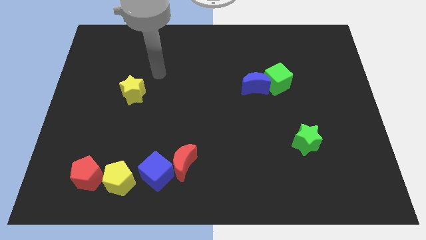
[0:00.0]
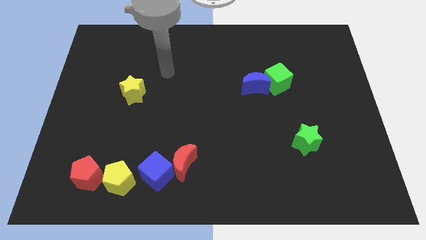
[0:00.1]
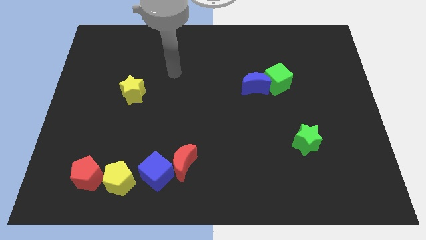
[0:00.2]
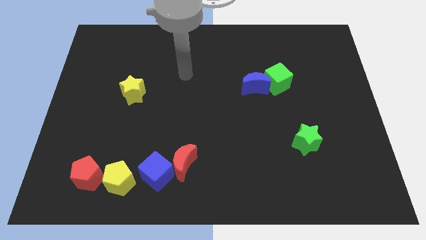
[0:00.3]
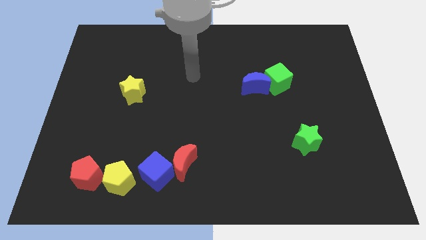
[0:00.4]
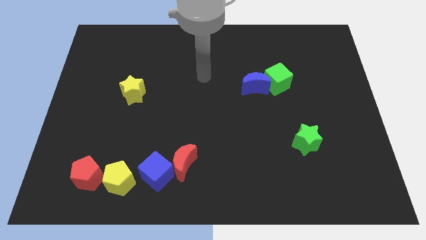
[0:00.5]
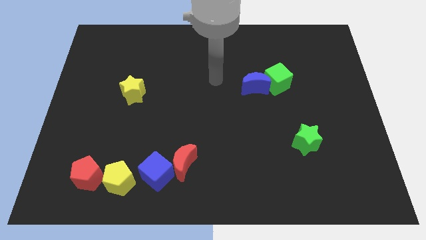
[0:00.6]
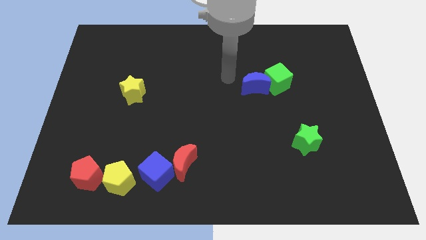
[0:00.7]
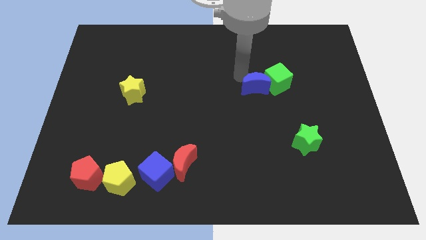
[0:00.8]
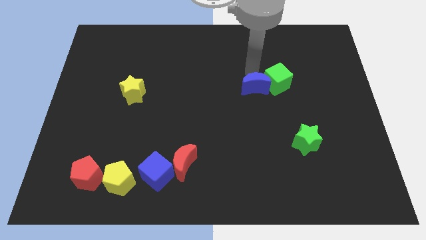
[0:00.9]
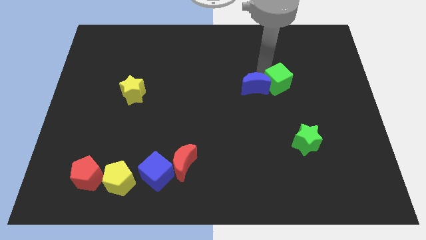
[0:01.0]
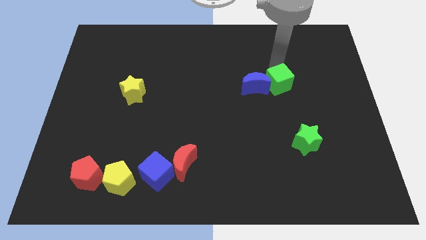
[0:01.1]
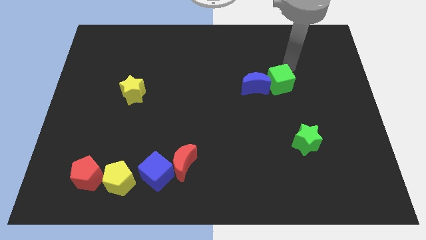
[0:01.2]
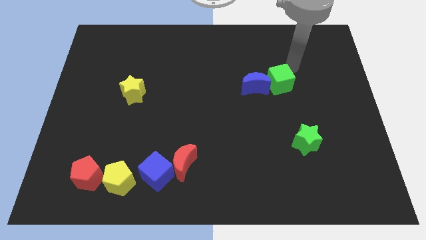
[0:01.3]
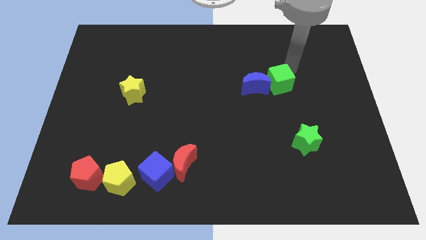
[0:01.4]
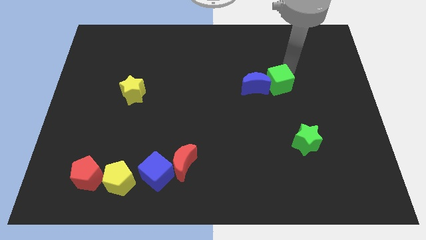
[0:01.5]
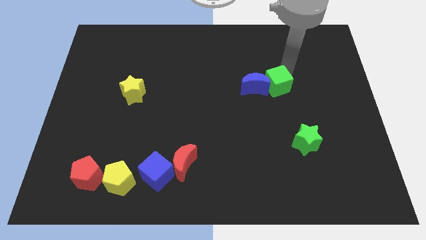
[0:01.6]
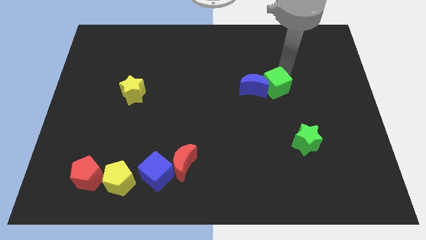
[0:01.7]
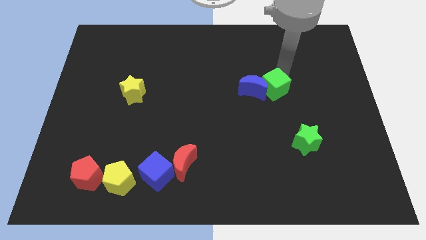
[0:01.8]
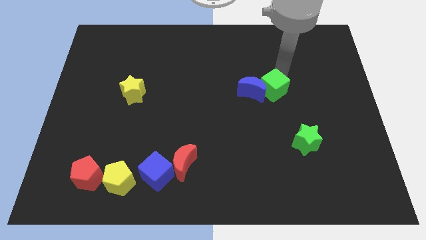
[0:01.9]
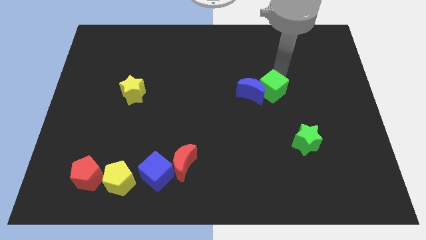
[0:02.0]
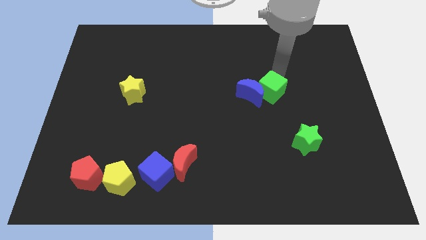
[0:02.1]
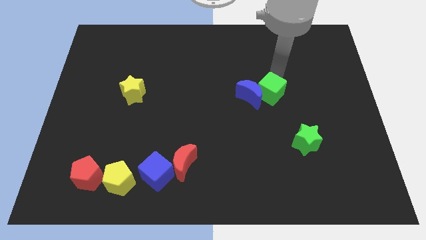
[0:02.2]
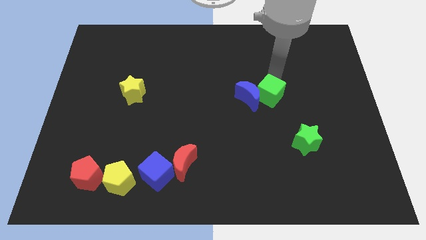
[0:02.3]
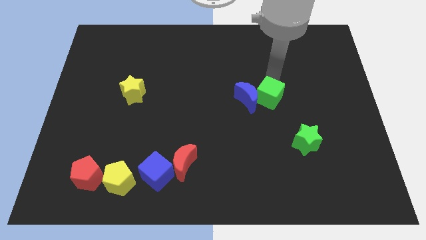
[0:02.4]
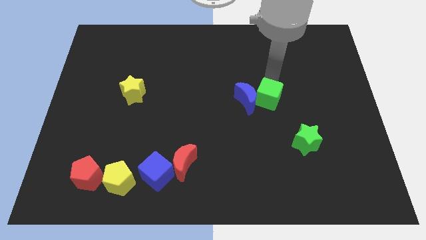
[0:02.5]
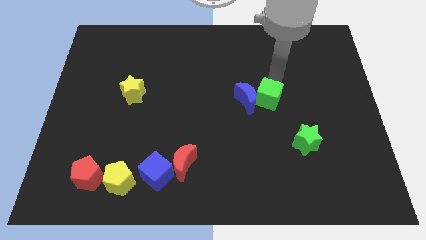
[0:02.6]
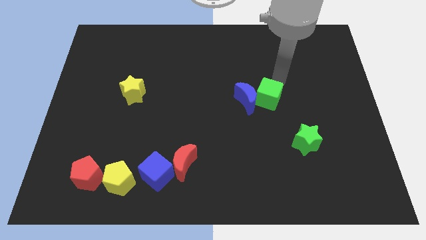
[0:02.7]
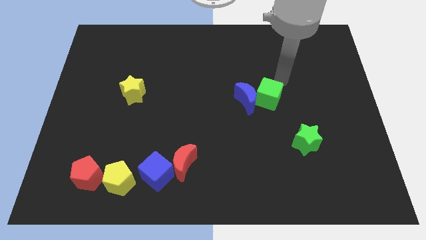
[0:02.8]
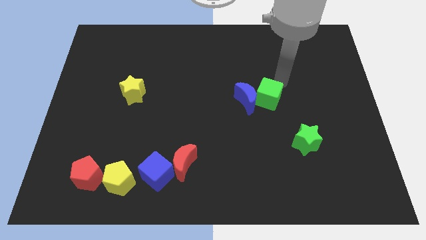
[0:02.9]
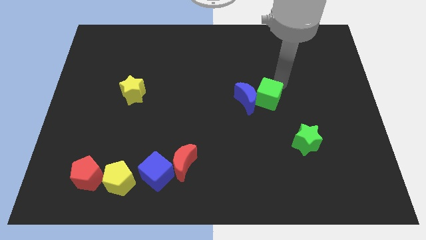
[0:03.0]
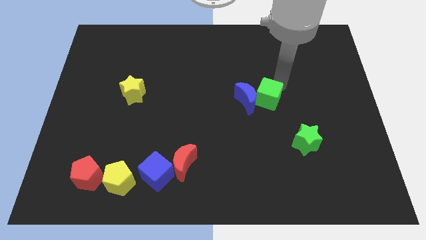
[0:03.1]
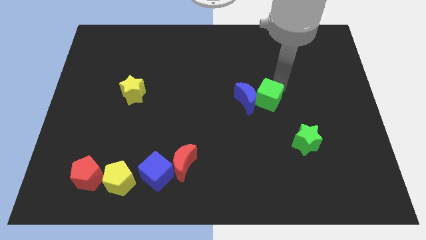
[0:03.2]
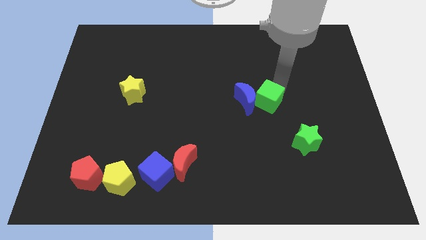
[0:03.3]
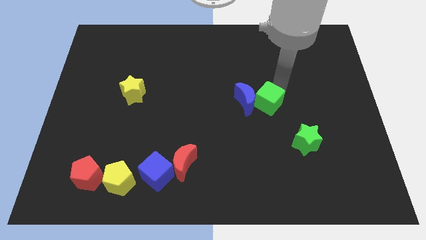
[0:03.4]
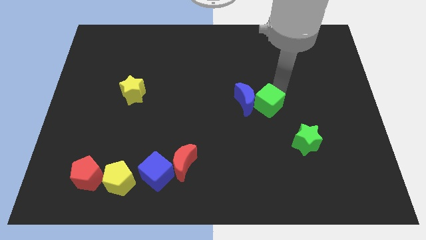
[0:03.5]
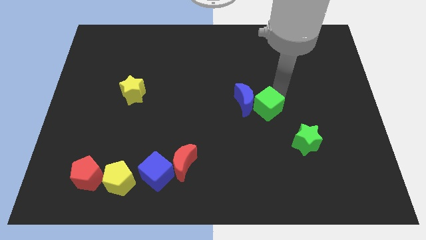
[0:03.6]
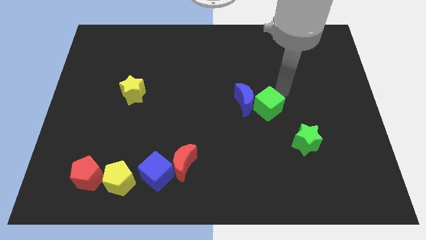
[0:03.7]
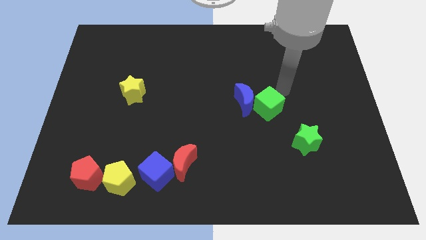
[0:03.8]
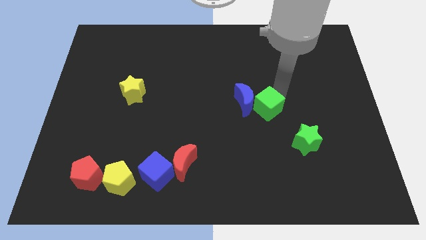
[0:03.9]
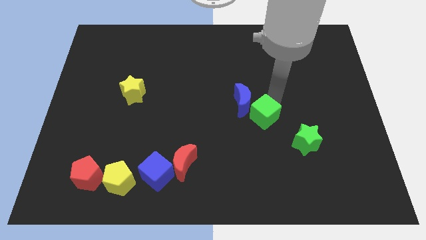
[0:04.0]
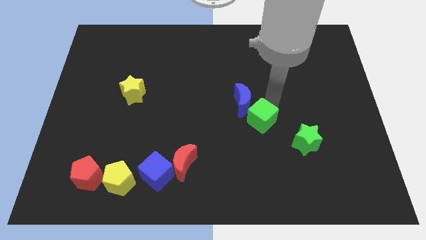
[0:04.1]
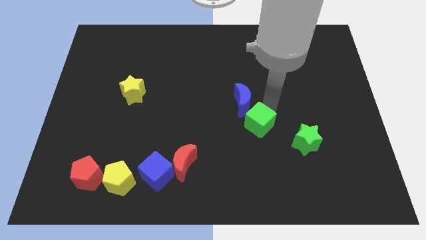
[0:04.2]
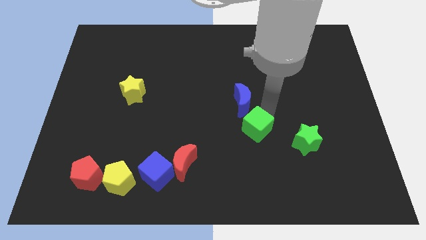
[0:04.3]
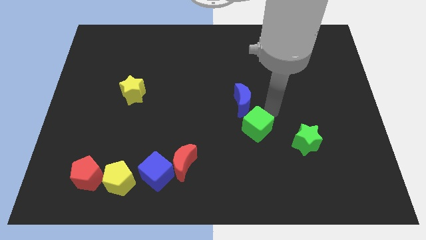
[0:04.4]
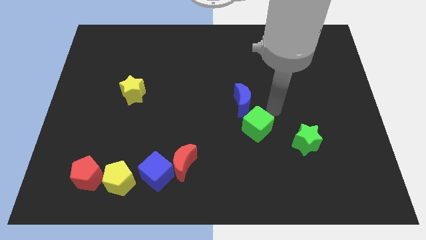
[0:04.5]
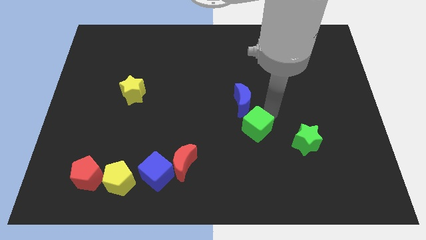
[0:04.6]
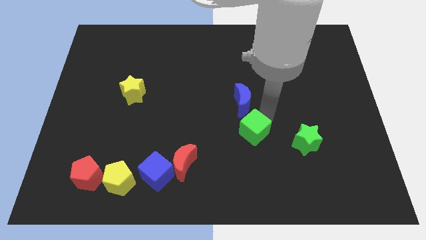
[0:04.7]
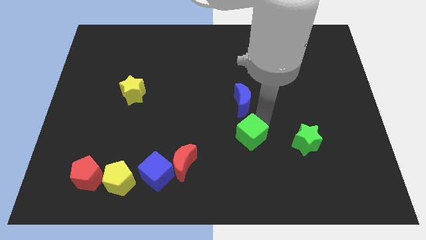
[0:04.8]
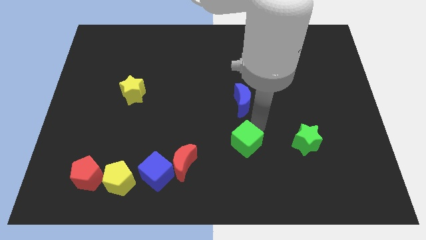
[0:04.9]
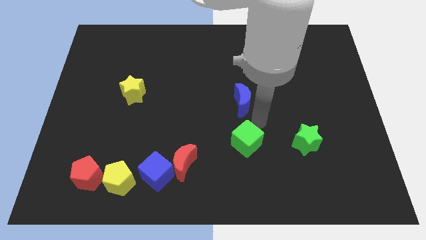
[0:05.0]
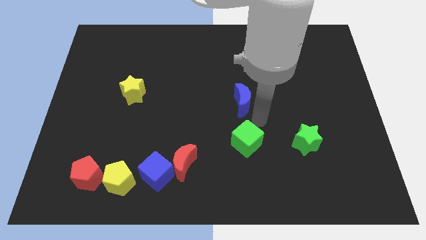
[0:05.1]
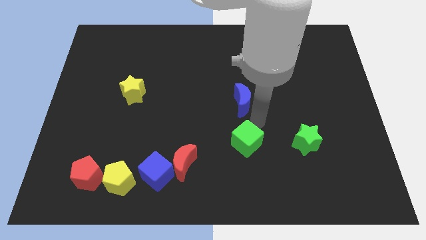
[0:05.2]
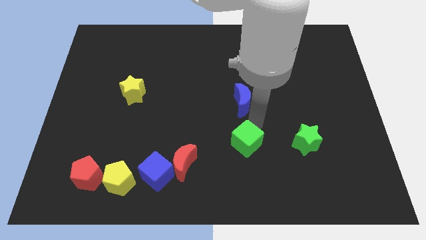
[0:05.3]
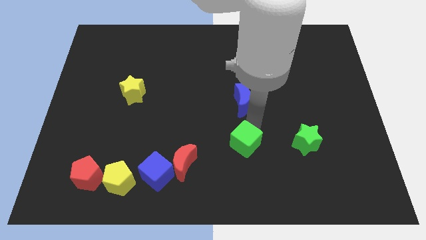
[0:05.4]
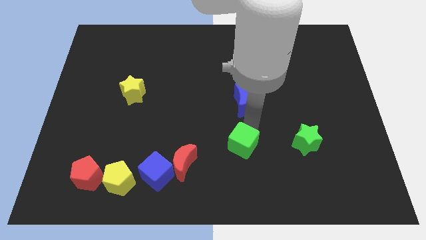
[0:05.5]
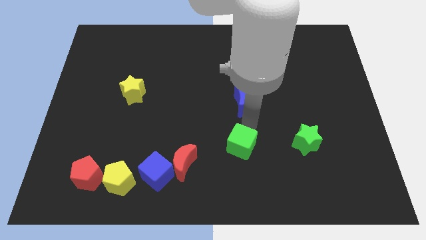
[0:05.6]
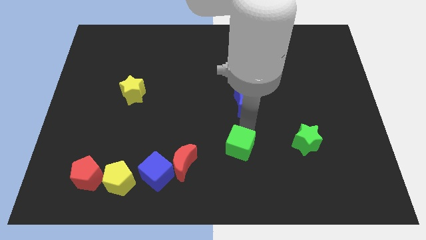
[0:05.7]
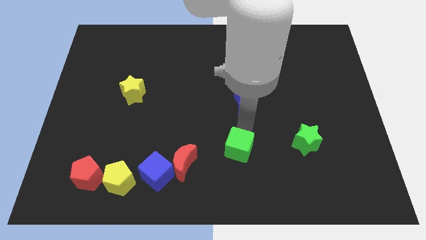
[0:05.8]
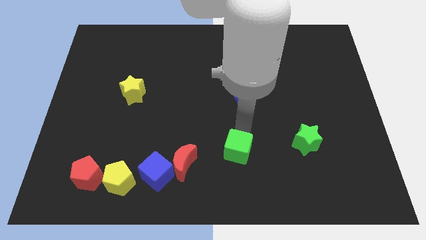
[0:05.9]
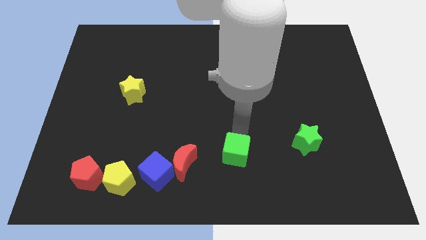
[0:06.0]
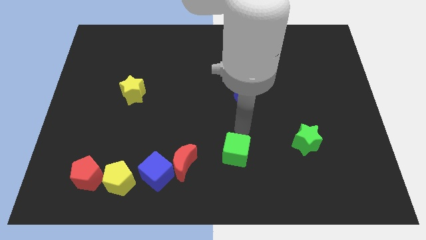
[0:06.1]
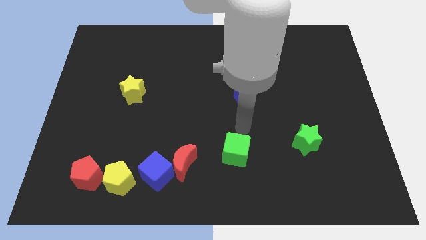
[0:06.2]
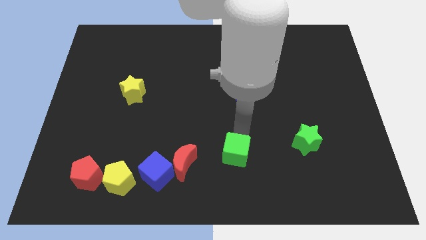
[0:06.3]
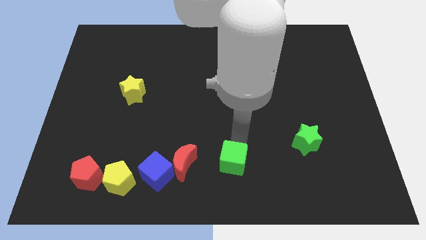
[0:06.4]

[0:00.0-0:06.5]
move the green cube to the bottom side
